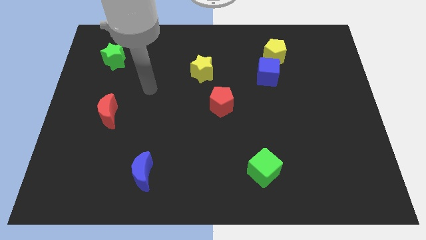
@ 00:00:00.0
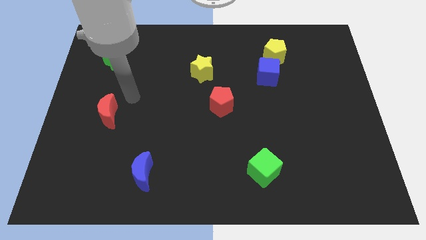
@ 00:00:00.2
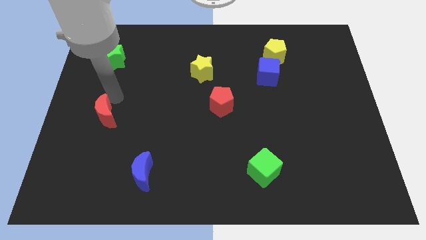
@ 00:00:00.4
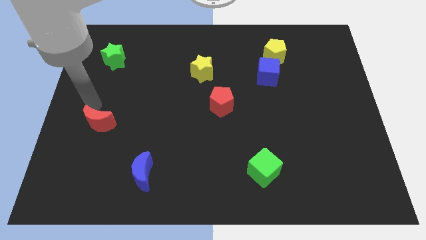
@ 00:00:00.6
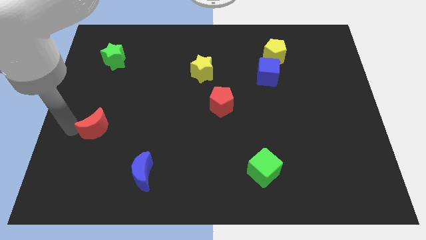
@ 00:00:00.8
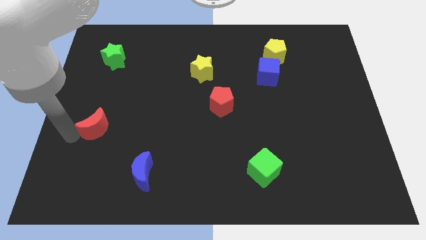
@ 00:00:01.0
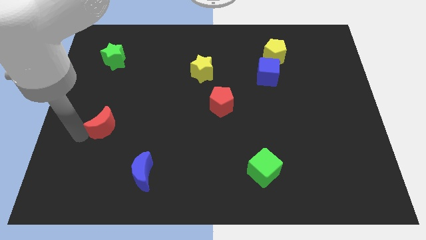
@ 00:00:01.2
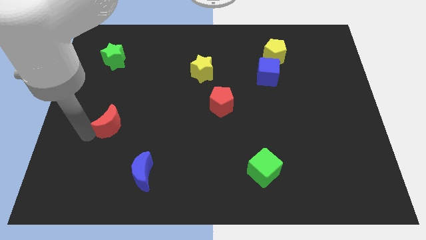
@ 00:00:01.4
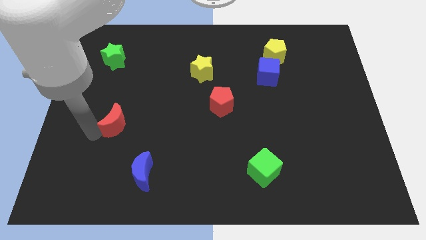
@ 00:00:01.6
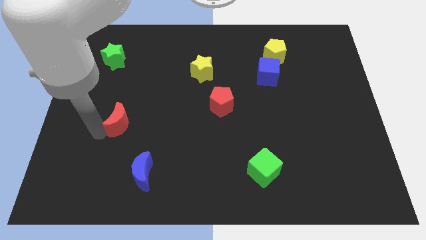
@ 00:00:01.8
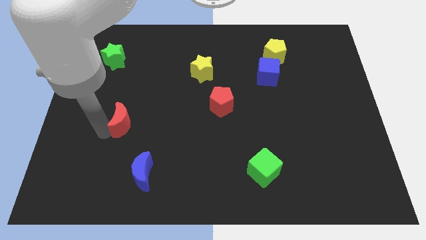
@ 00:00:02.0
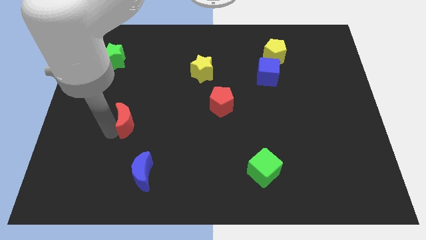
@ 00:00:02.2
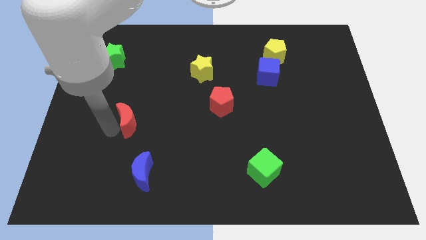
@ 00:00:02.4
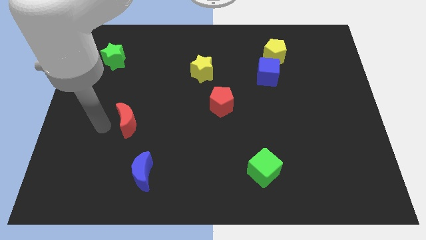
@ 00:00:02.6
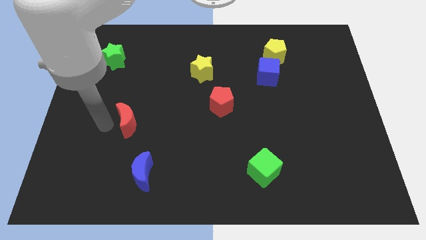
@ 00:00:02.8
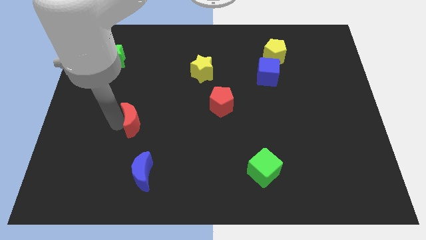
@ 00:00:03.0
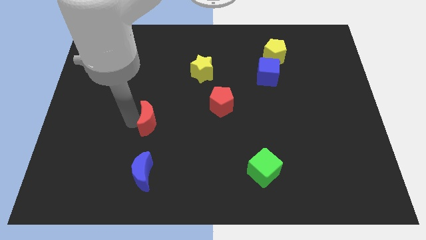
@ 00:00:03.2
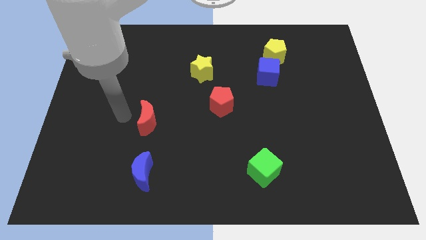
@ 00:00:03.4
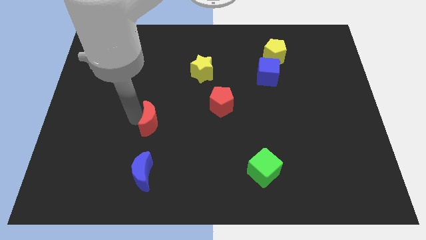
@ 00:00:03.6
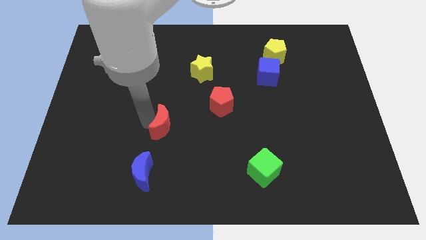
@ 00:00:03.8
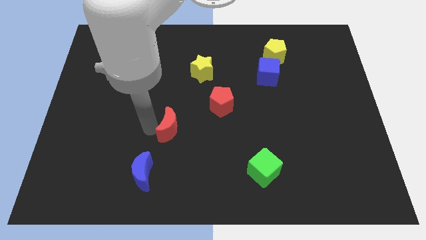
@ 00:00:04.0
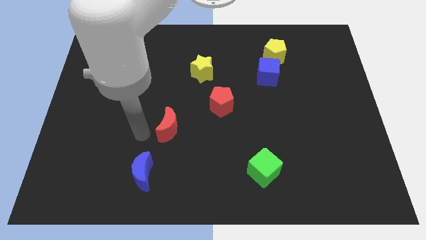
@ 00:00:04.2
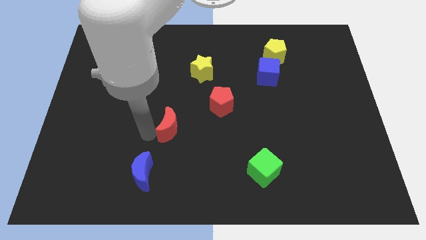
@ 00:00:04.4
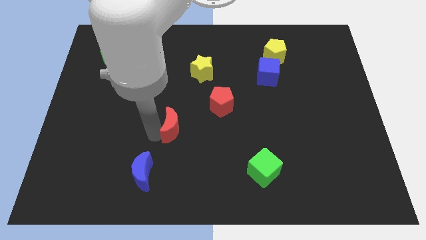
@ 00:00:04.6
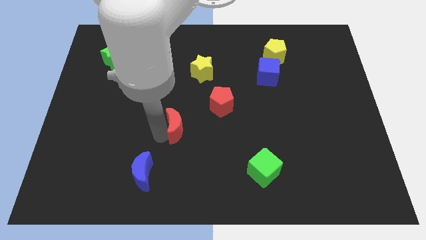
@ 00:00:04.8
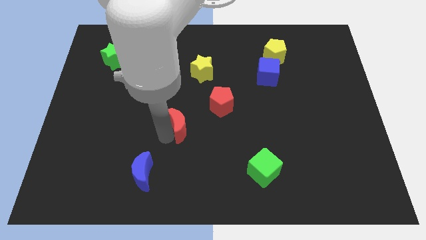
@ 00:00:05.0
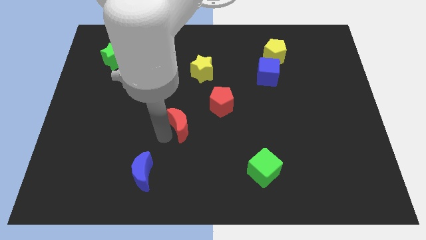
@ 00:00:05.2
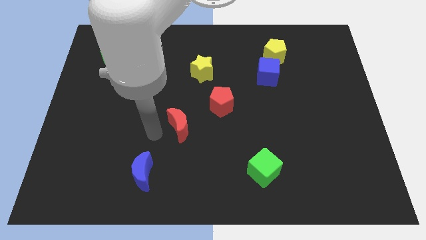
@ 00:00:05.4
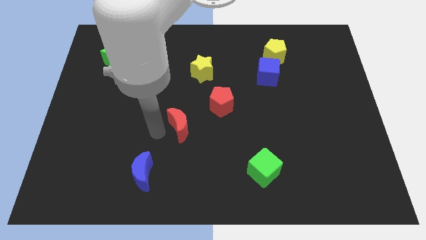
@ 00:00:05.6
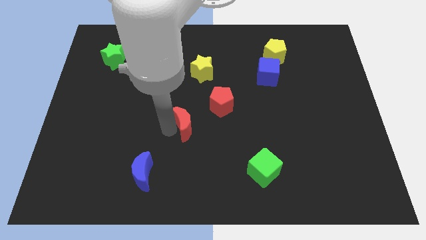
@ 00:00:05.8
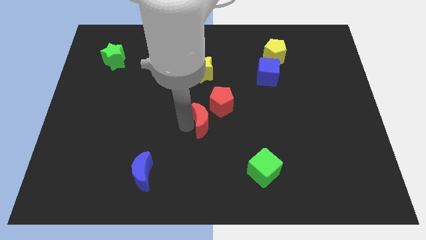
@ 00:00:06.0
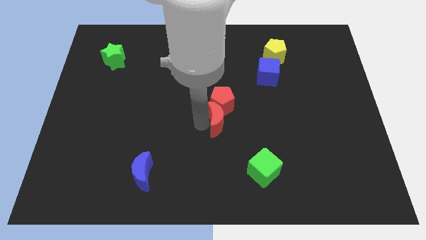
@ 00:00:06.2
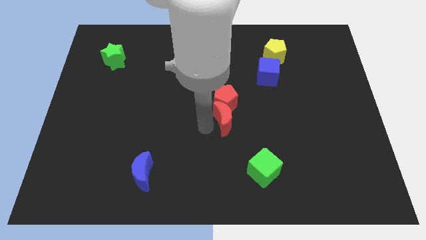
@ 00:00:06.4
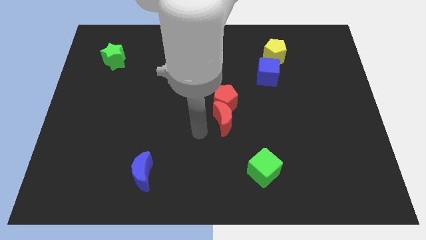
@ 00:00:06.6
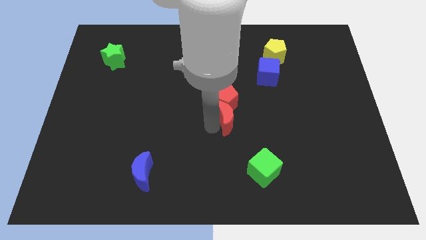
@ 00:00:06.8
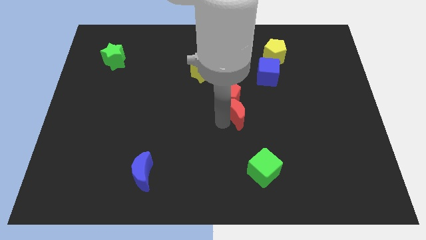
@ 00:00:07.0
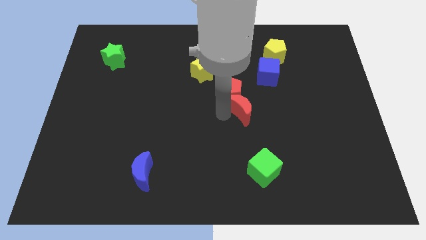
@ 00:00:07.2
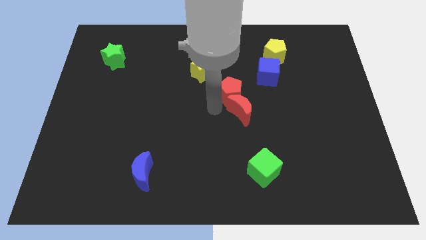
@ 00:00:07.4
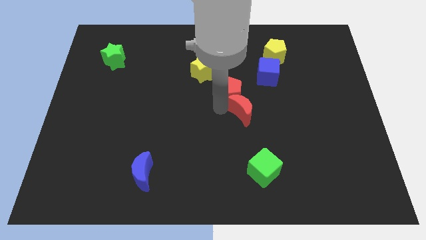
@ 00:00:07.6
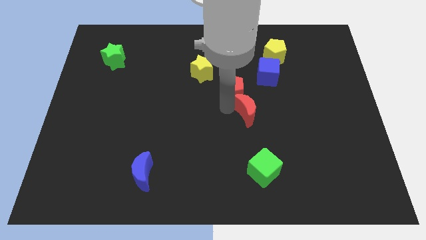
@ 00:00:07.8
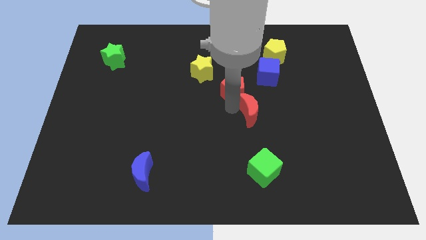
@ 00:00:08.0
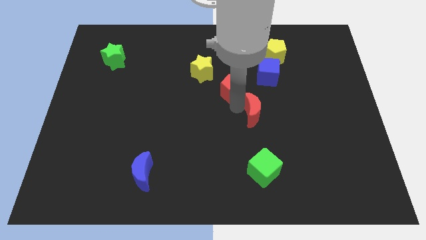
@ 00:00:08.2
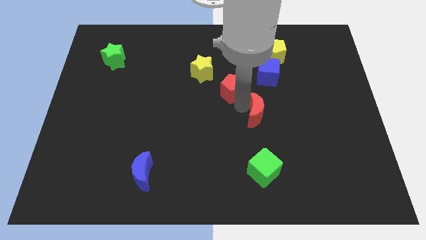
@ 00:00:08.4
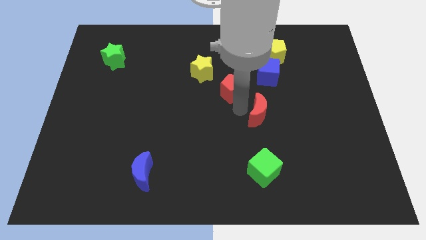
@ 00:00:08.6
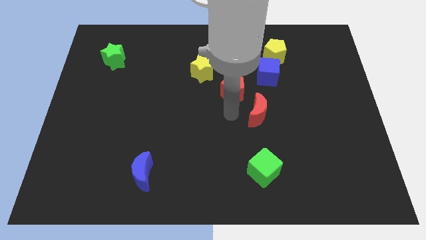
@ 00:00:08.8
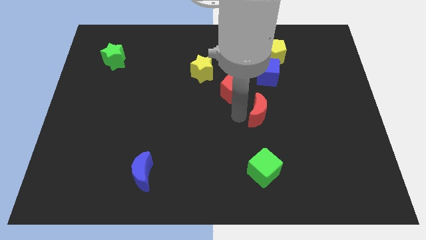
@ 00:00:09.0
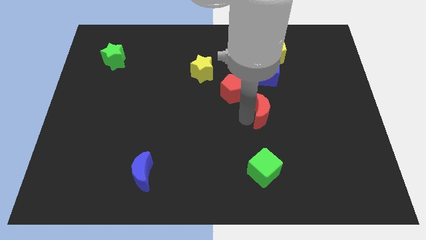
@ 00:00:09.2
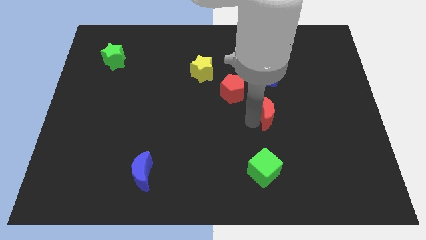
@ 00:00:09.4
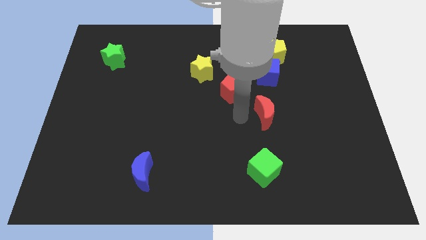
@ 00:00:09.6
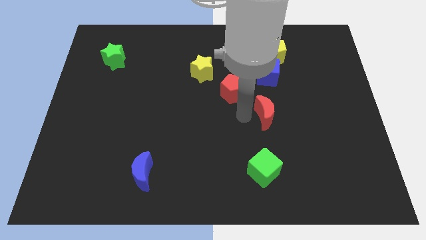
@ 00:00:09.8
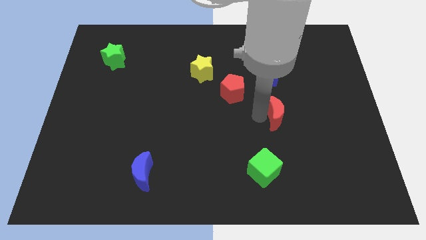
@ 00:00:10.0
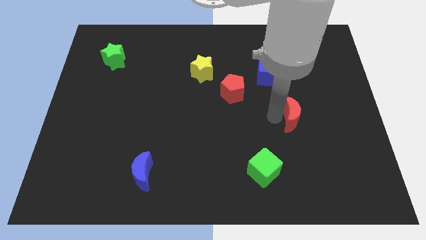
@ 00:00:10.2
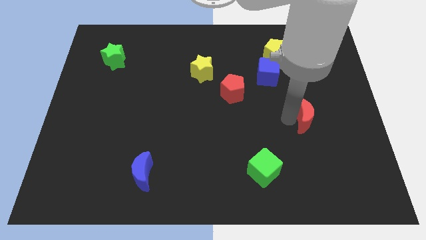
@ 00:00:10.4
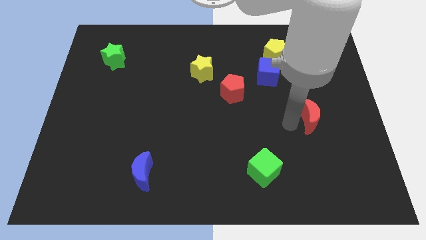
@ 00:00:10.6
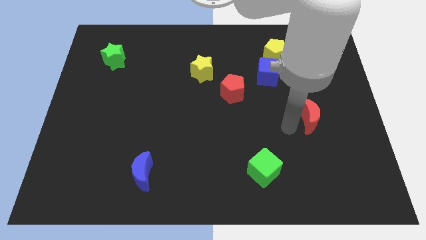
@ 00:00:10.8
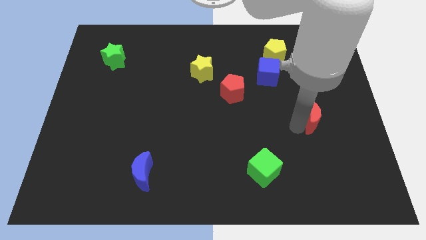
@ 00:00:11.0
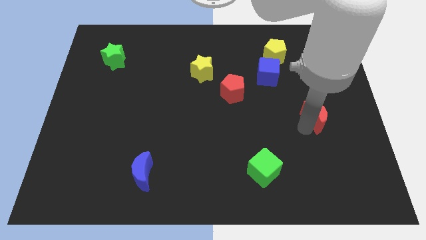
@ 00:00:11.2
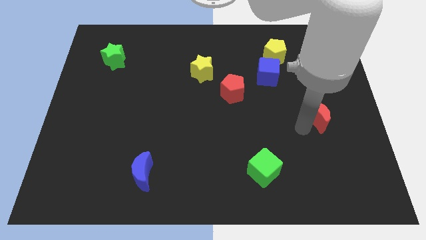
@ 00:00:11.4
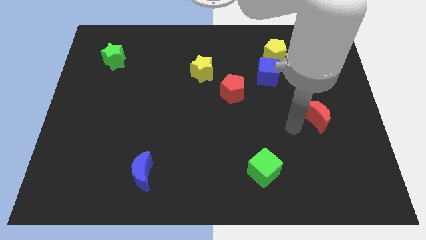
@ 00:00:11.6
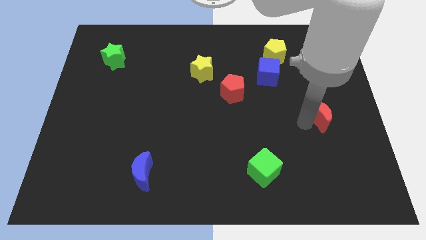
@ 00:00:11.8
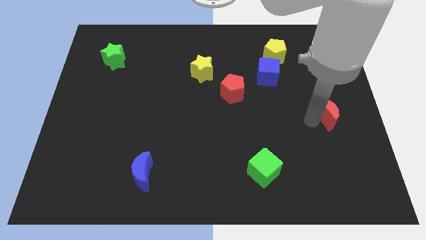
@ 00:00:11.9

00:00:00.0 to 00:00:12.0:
put the red moon to the right side

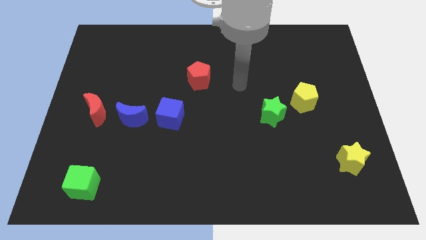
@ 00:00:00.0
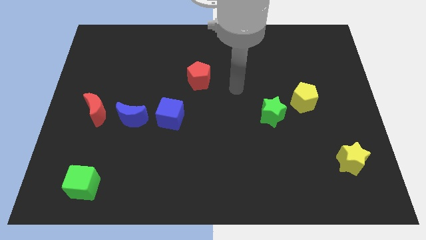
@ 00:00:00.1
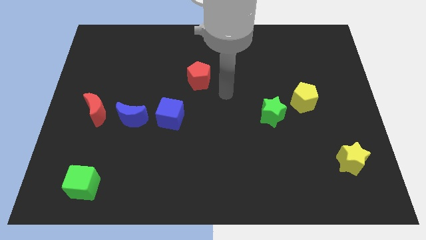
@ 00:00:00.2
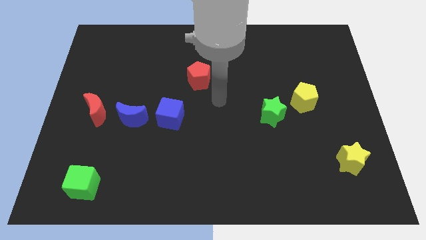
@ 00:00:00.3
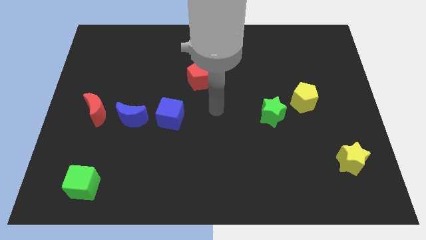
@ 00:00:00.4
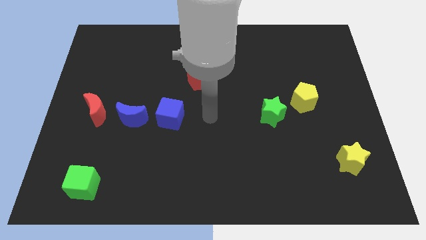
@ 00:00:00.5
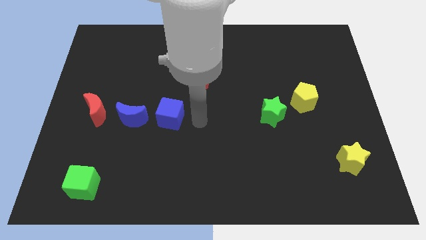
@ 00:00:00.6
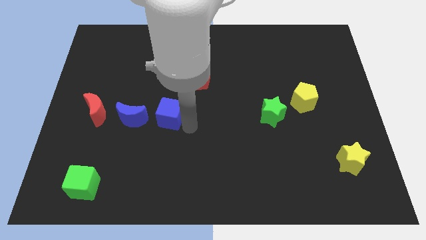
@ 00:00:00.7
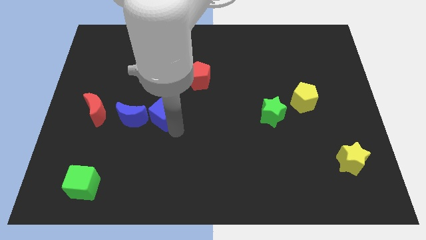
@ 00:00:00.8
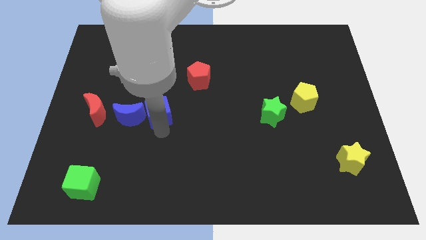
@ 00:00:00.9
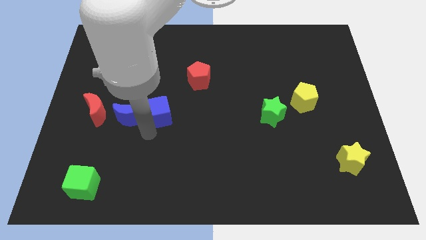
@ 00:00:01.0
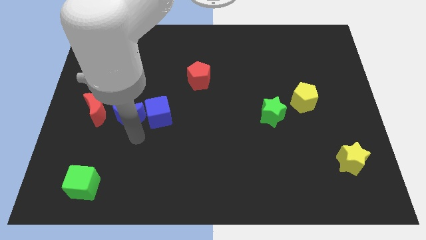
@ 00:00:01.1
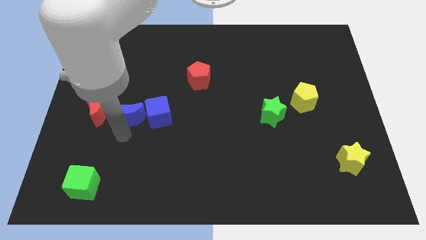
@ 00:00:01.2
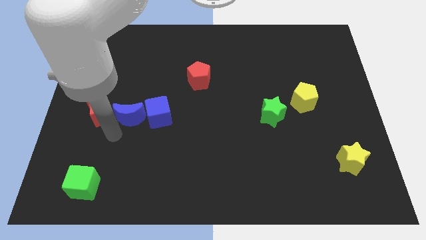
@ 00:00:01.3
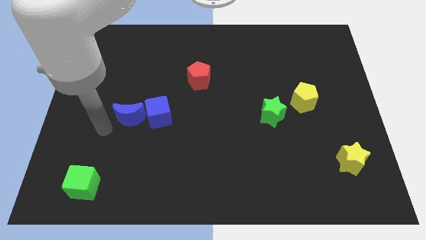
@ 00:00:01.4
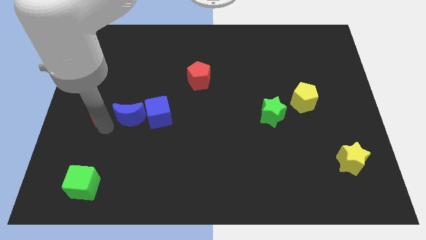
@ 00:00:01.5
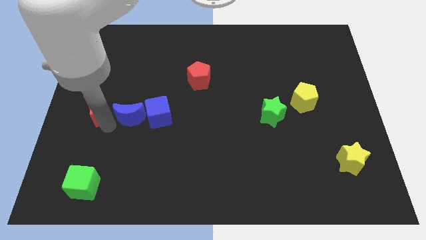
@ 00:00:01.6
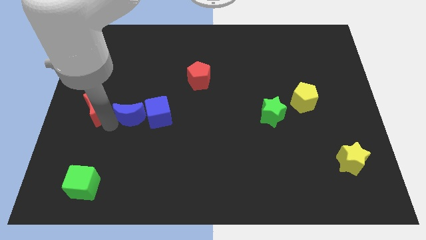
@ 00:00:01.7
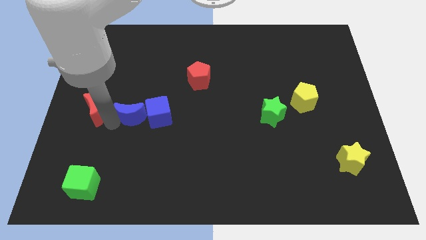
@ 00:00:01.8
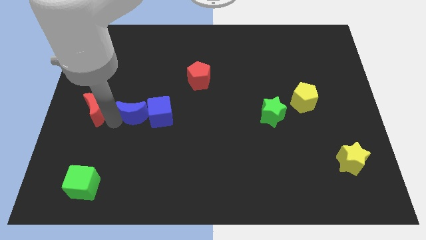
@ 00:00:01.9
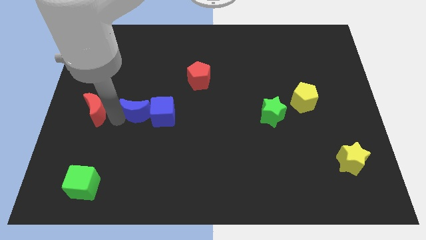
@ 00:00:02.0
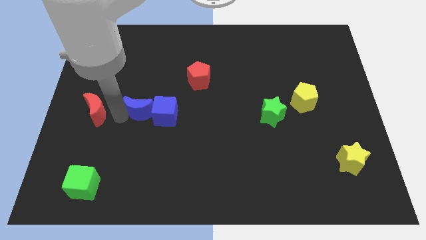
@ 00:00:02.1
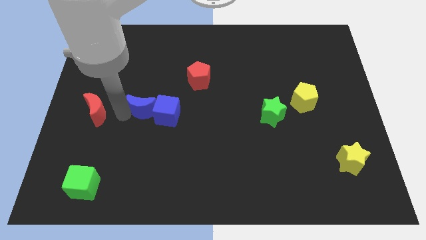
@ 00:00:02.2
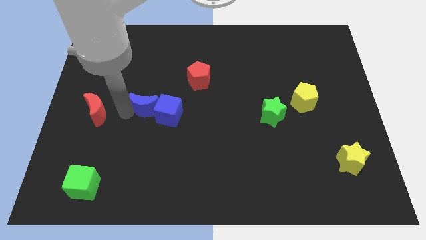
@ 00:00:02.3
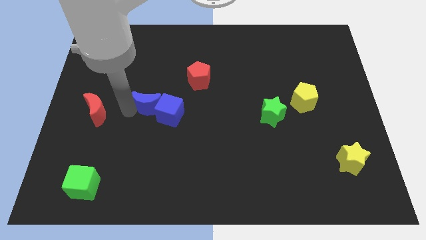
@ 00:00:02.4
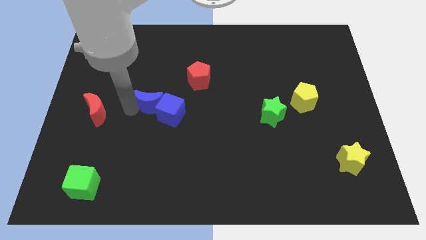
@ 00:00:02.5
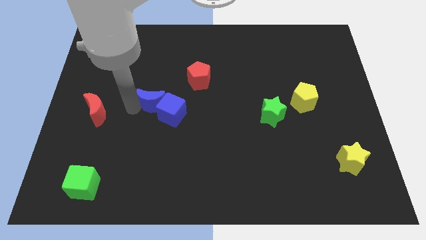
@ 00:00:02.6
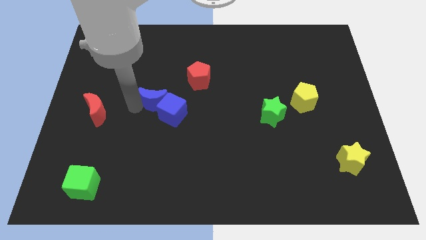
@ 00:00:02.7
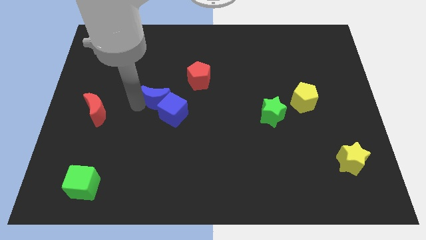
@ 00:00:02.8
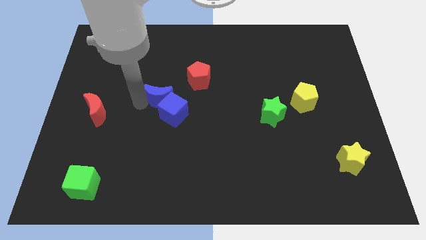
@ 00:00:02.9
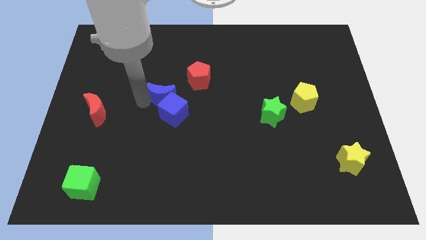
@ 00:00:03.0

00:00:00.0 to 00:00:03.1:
put the blue moon to the middle
